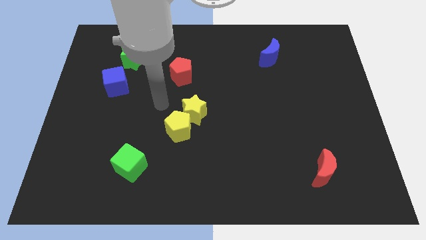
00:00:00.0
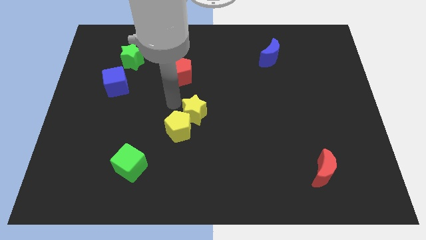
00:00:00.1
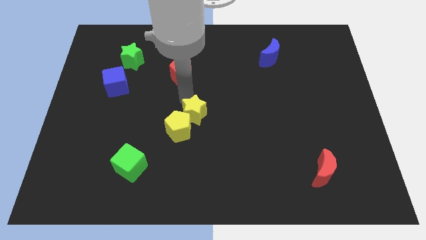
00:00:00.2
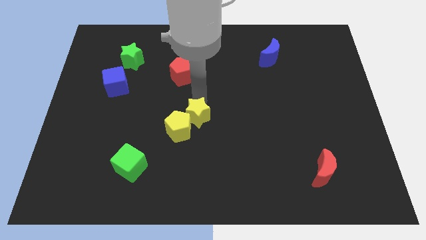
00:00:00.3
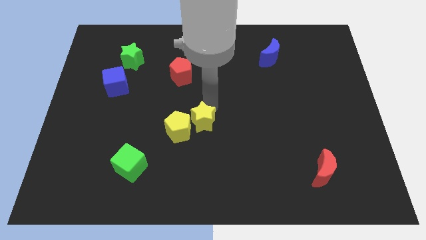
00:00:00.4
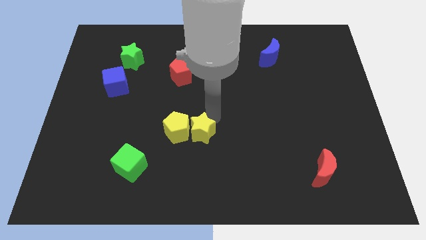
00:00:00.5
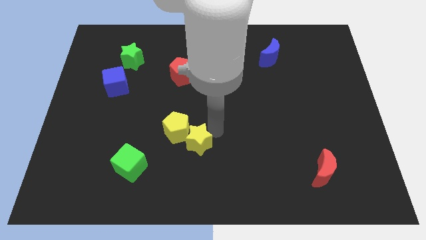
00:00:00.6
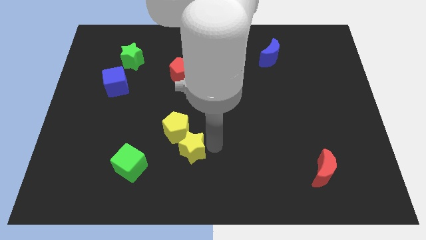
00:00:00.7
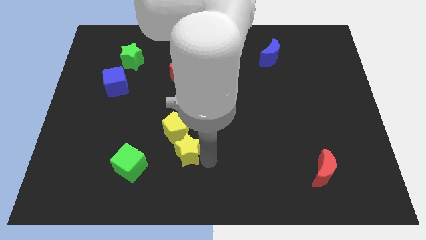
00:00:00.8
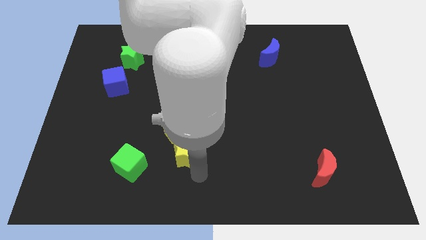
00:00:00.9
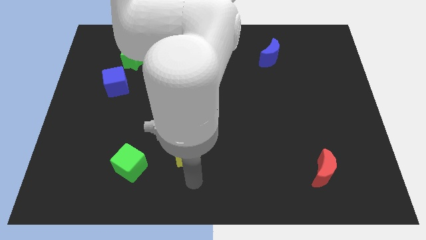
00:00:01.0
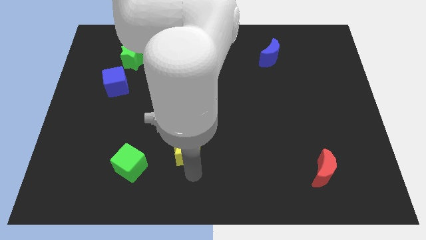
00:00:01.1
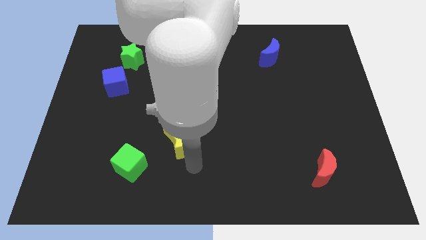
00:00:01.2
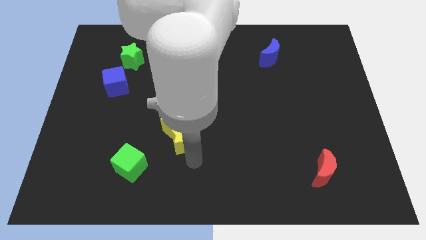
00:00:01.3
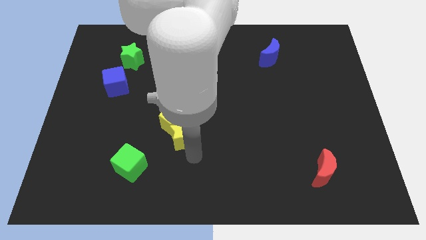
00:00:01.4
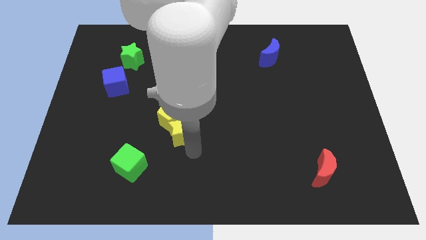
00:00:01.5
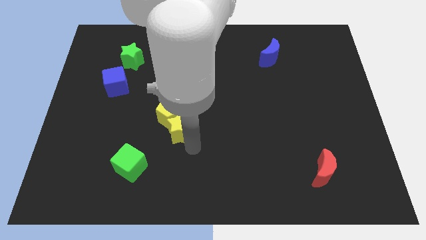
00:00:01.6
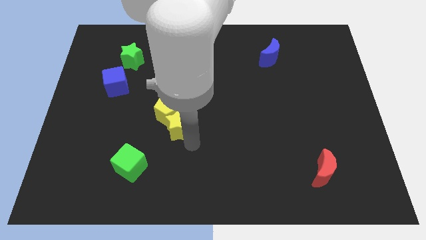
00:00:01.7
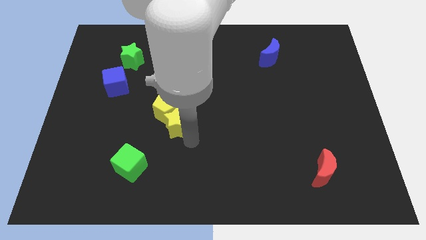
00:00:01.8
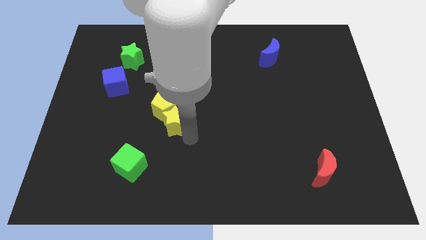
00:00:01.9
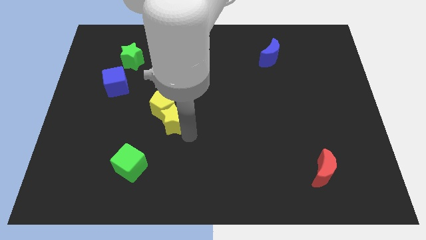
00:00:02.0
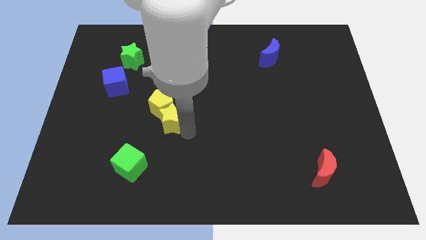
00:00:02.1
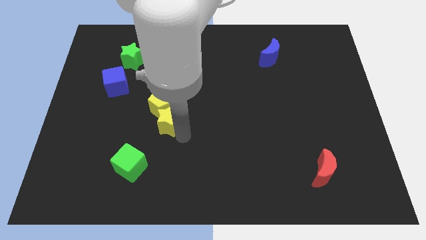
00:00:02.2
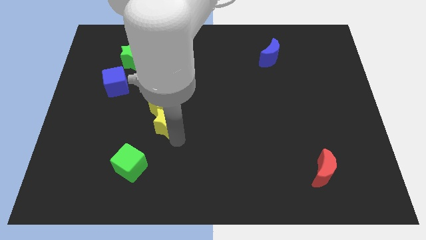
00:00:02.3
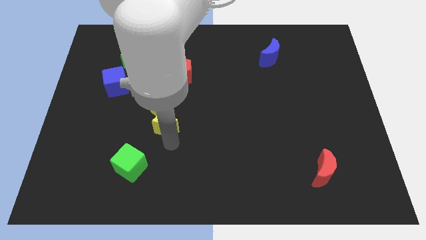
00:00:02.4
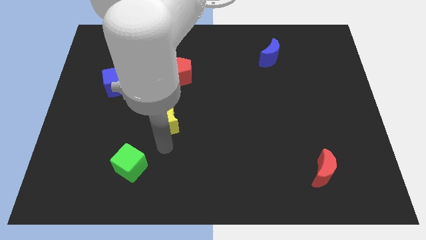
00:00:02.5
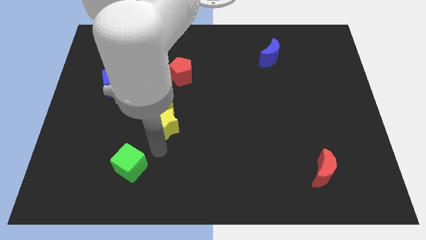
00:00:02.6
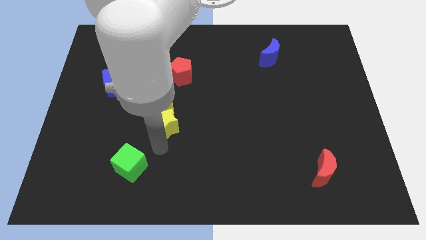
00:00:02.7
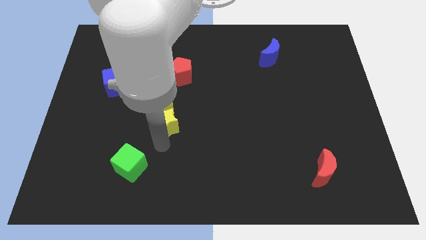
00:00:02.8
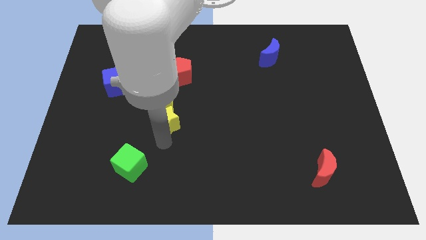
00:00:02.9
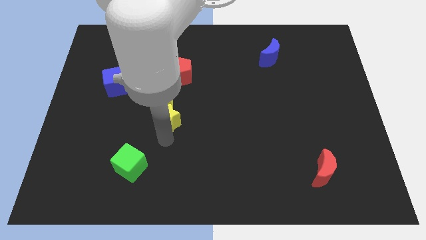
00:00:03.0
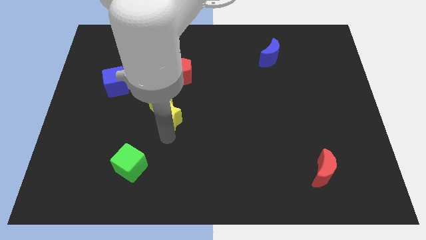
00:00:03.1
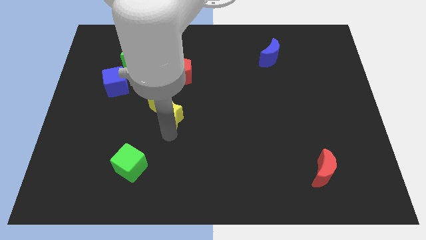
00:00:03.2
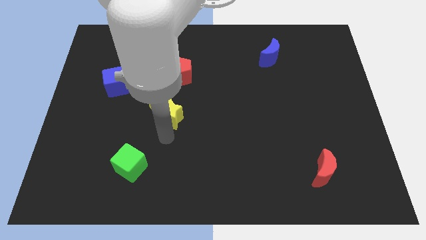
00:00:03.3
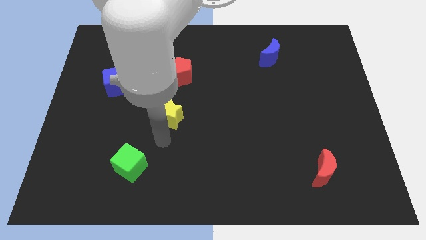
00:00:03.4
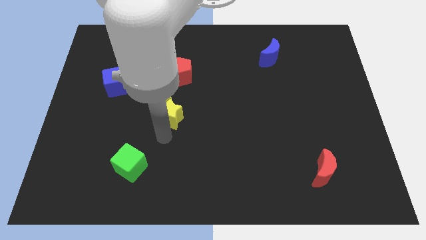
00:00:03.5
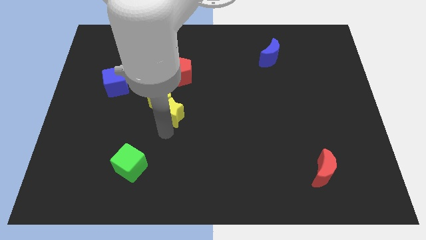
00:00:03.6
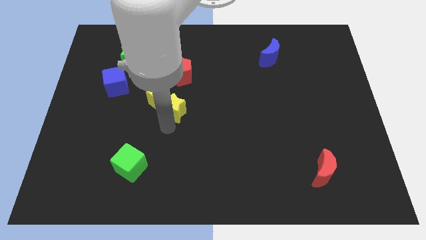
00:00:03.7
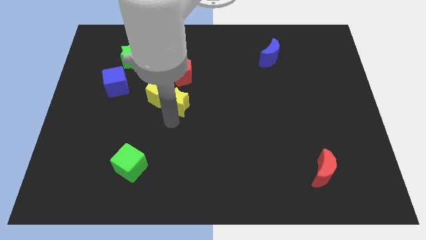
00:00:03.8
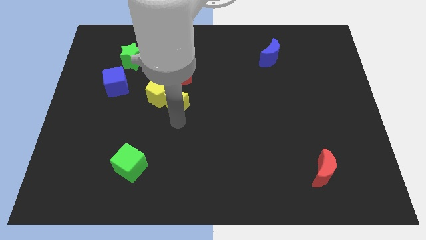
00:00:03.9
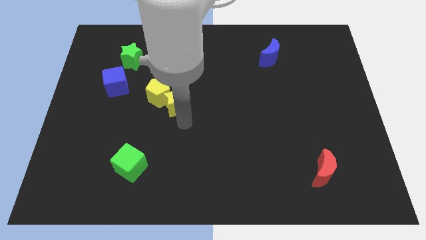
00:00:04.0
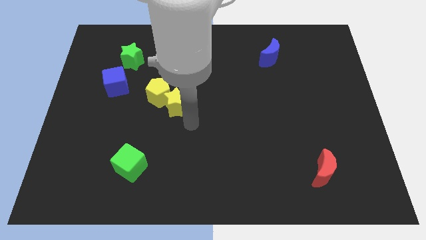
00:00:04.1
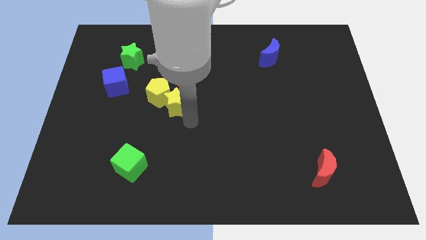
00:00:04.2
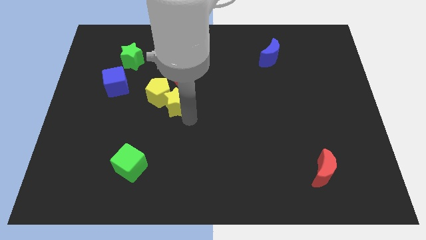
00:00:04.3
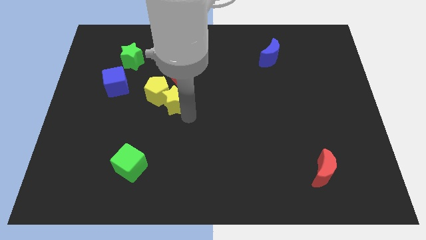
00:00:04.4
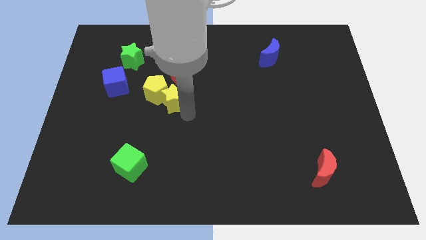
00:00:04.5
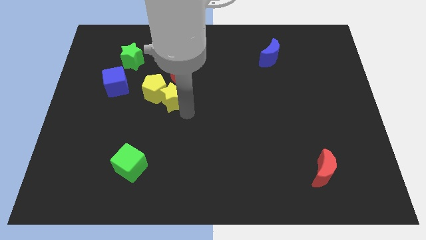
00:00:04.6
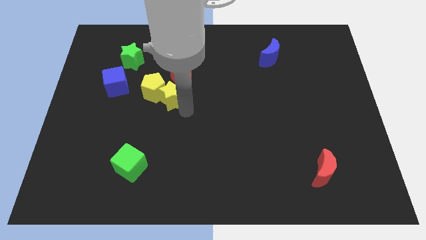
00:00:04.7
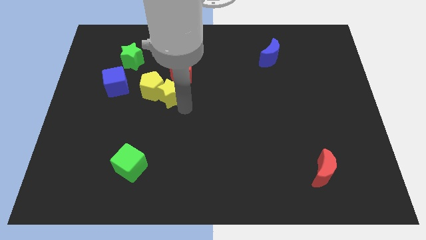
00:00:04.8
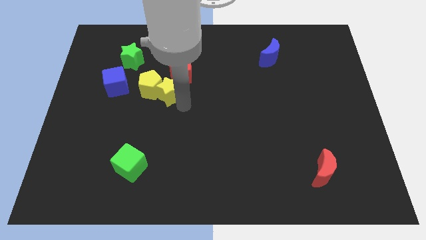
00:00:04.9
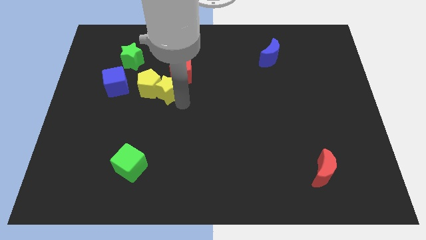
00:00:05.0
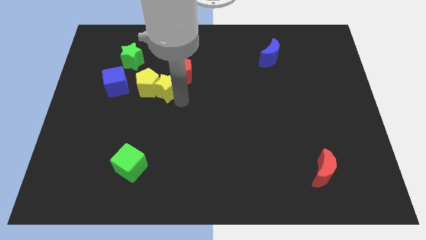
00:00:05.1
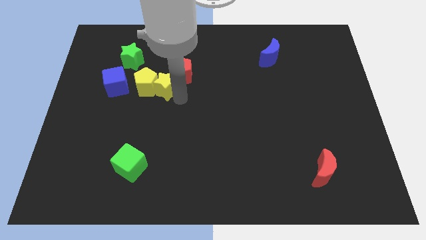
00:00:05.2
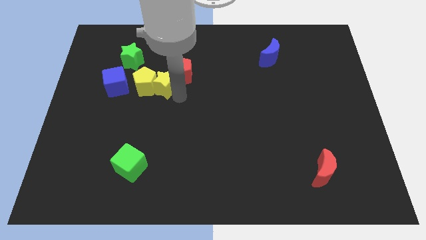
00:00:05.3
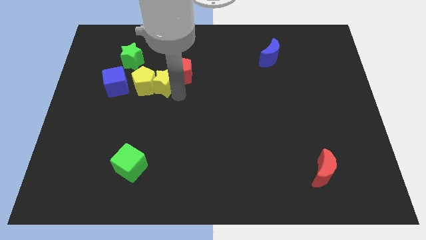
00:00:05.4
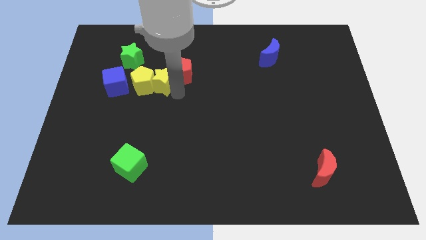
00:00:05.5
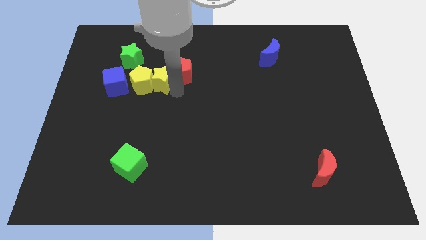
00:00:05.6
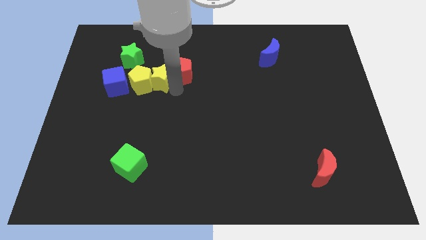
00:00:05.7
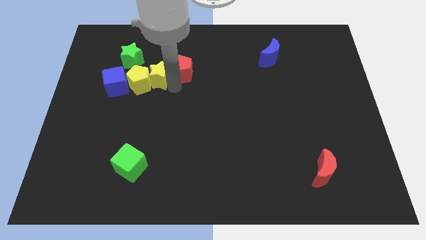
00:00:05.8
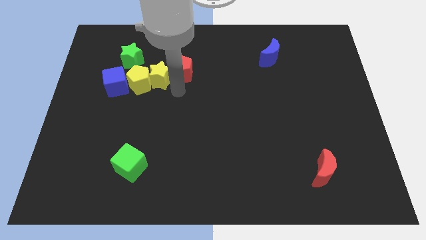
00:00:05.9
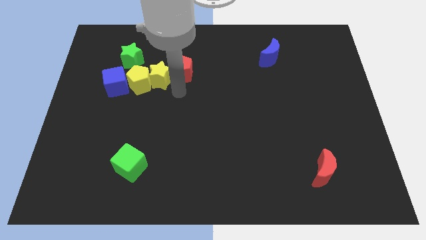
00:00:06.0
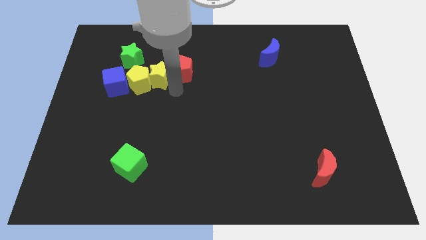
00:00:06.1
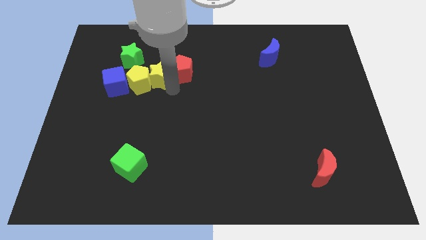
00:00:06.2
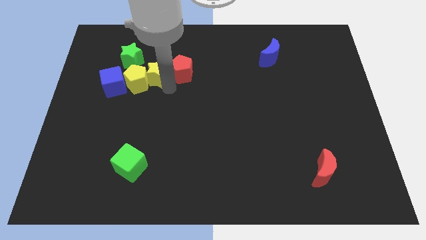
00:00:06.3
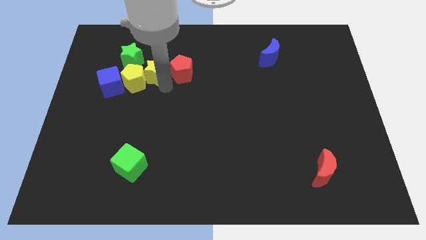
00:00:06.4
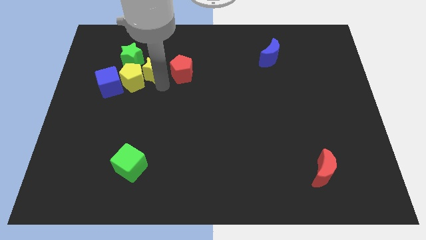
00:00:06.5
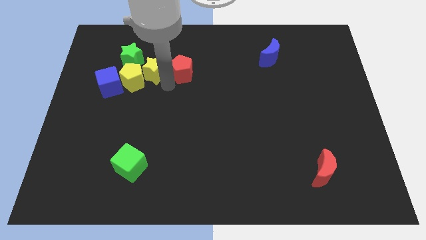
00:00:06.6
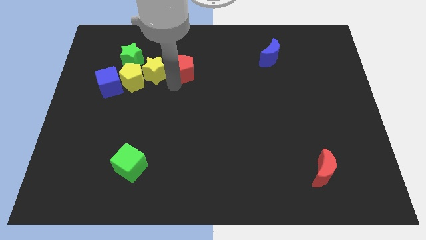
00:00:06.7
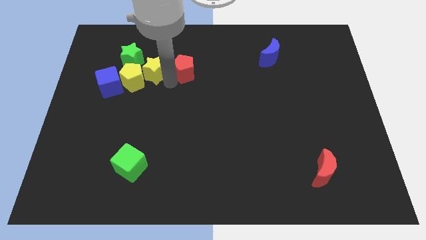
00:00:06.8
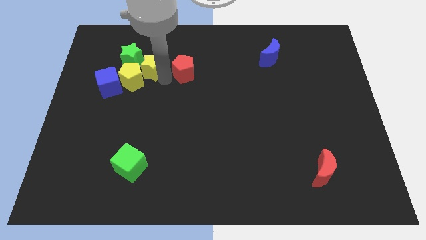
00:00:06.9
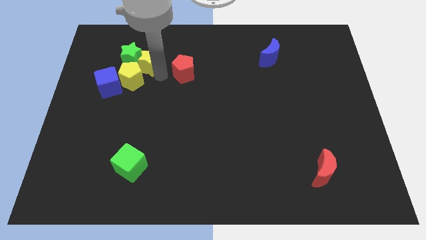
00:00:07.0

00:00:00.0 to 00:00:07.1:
put the yellow star next to the green star

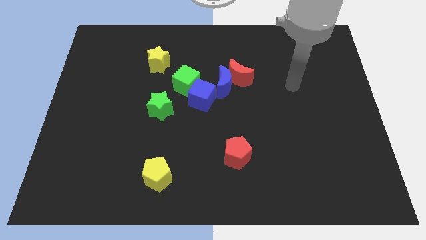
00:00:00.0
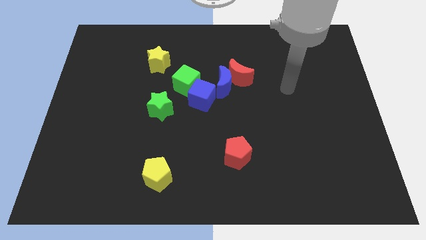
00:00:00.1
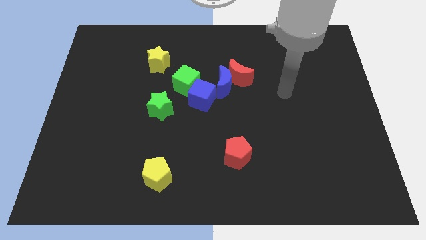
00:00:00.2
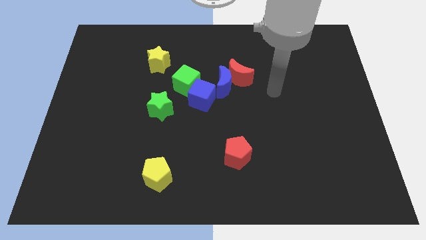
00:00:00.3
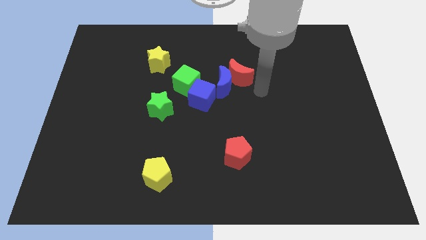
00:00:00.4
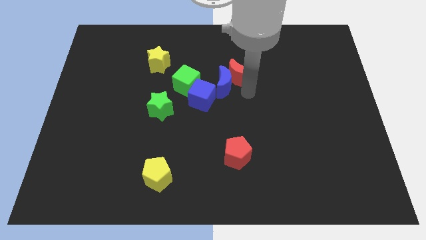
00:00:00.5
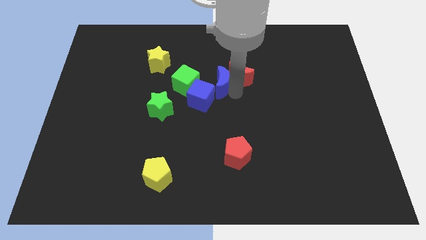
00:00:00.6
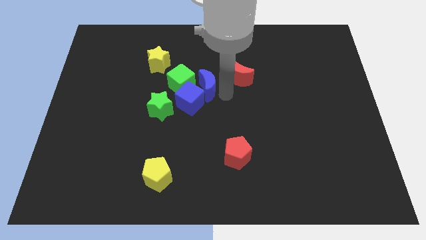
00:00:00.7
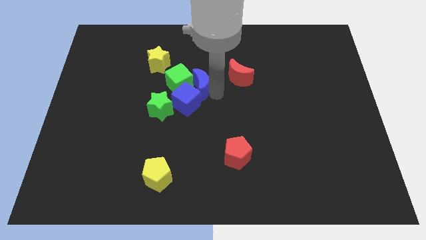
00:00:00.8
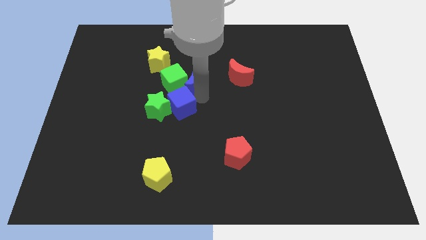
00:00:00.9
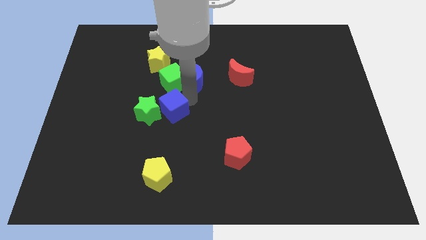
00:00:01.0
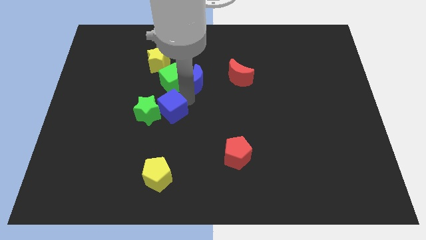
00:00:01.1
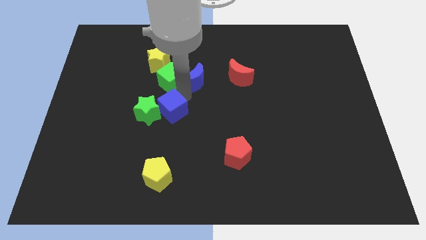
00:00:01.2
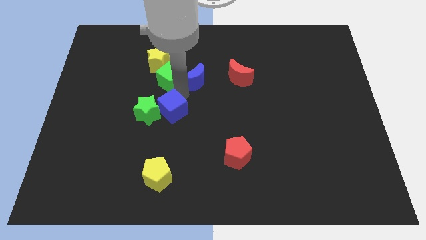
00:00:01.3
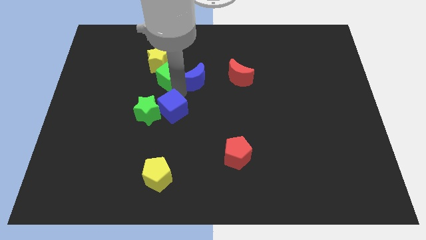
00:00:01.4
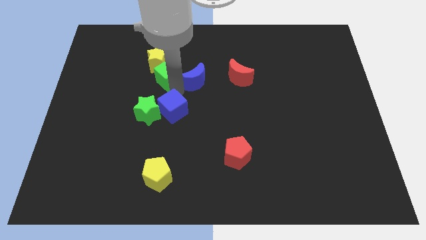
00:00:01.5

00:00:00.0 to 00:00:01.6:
slide the green cube close to the yellow star
